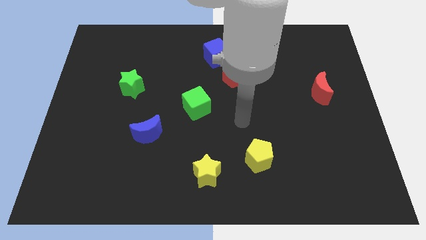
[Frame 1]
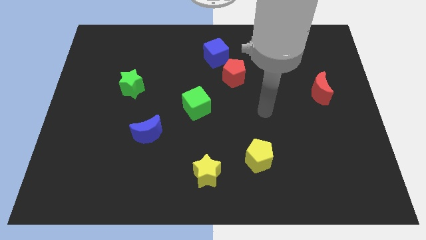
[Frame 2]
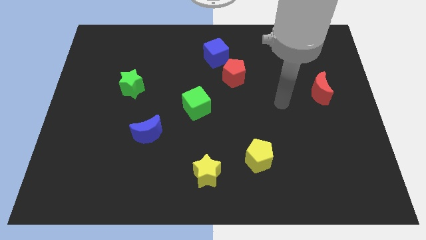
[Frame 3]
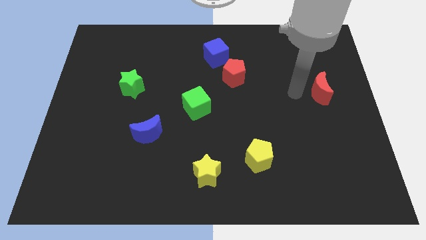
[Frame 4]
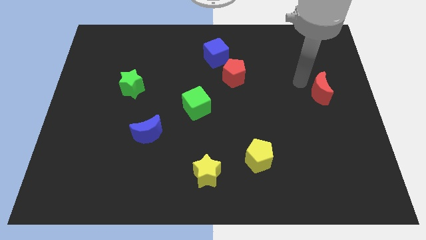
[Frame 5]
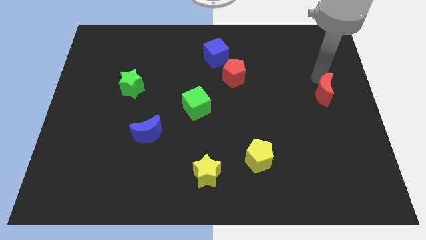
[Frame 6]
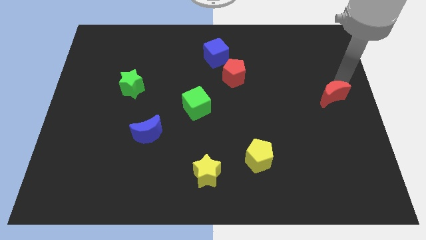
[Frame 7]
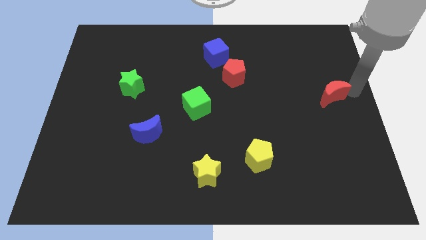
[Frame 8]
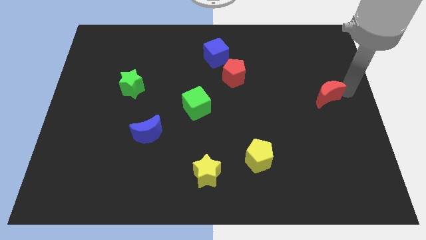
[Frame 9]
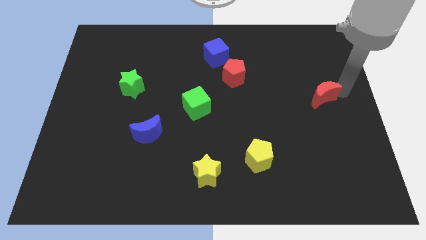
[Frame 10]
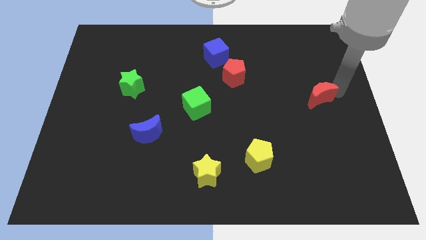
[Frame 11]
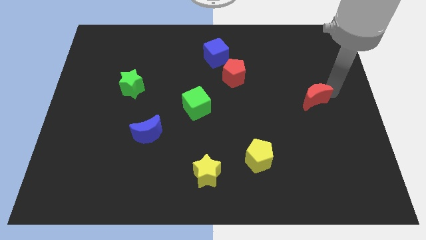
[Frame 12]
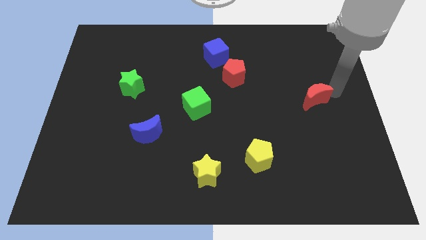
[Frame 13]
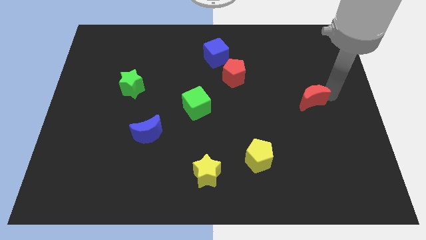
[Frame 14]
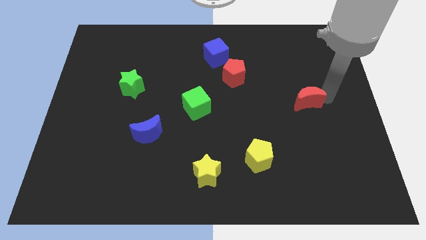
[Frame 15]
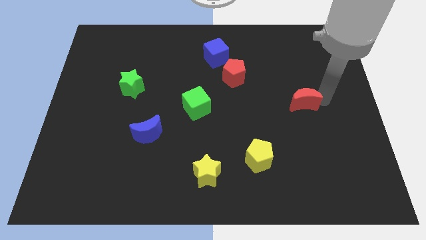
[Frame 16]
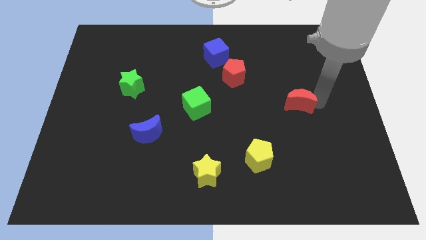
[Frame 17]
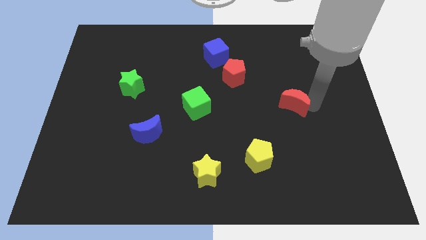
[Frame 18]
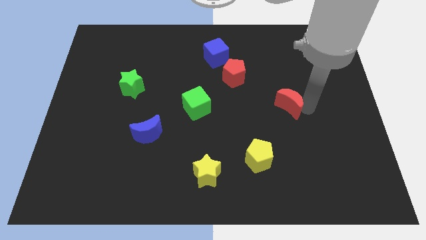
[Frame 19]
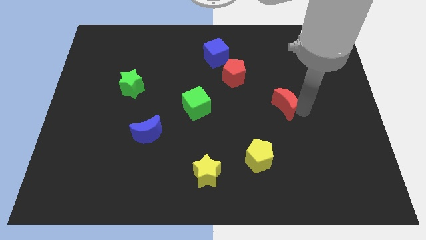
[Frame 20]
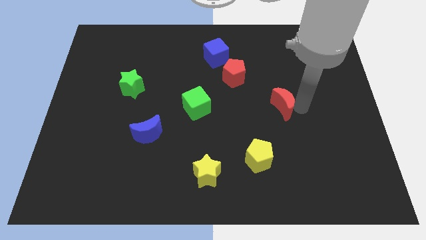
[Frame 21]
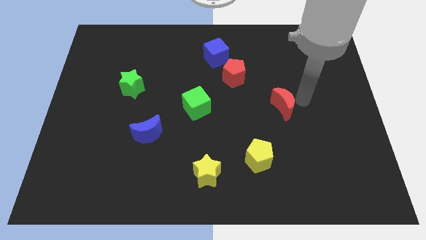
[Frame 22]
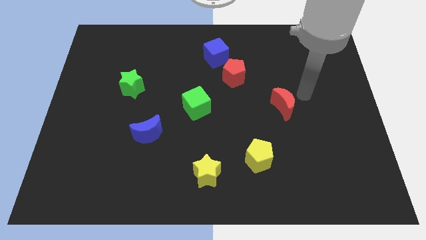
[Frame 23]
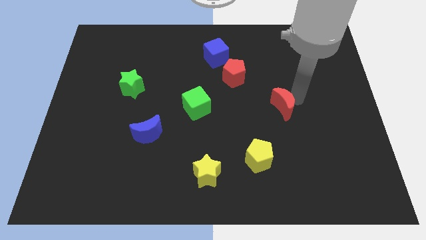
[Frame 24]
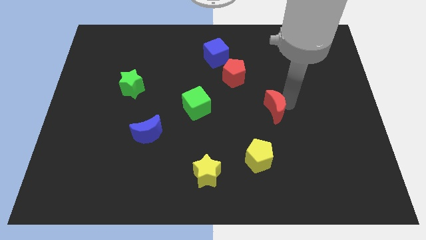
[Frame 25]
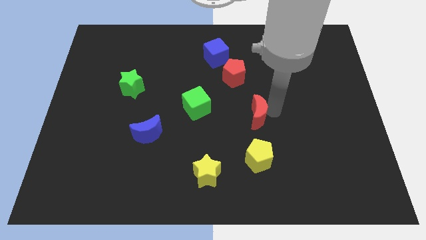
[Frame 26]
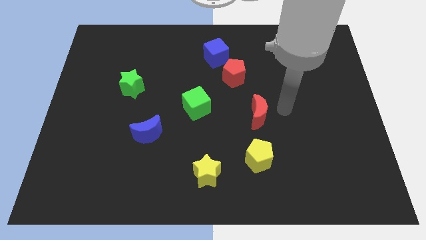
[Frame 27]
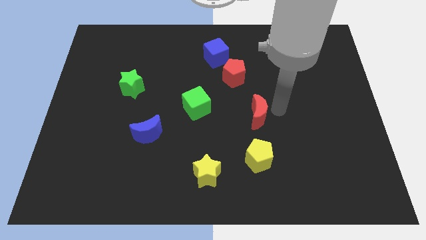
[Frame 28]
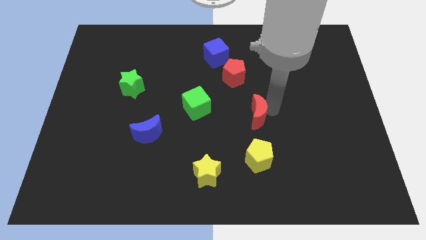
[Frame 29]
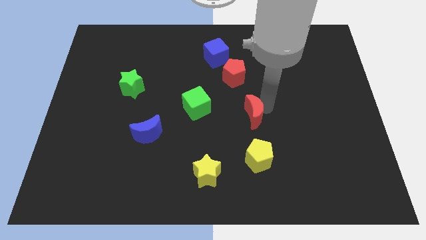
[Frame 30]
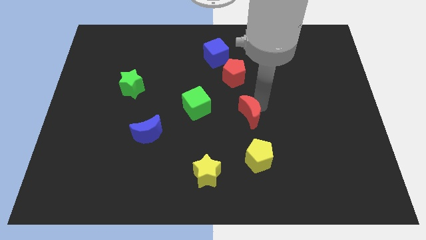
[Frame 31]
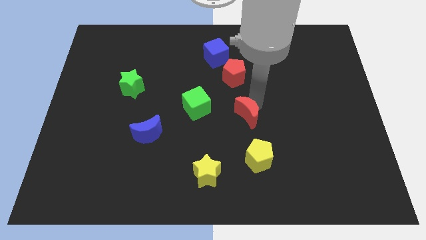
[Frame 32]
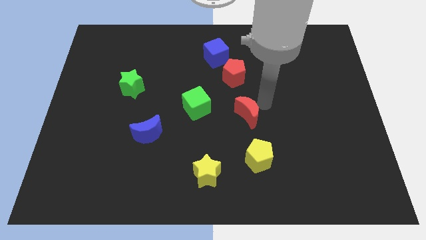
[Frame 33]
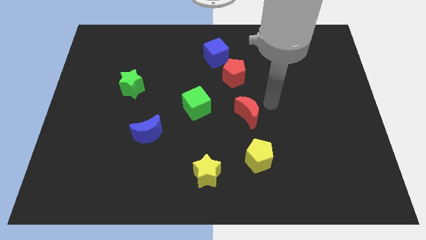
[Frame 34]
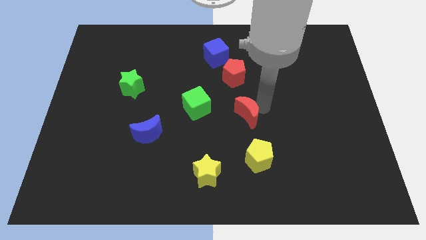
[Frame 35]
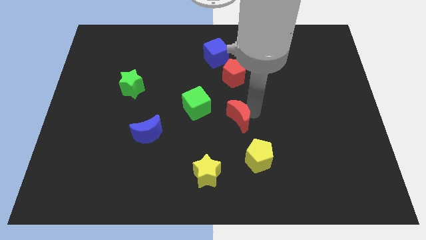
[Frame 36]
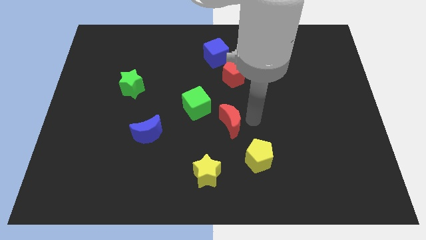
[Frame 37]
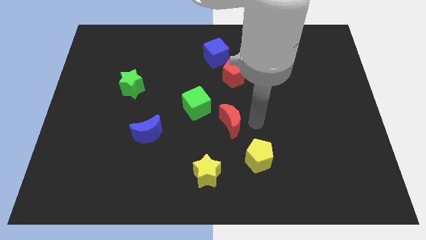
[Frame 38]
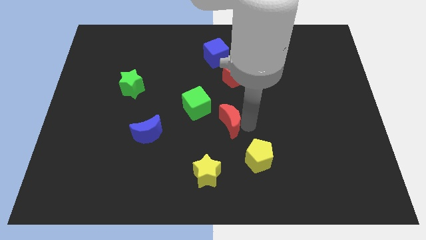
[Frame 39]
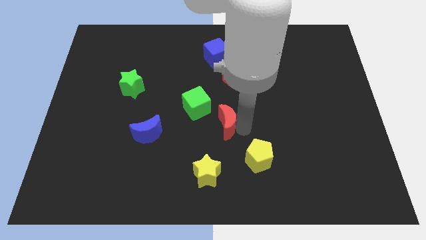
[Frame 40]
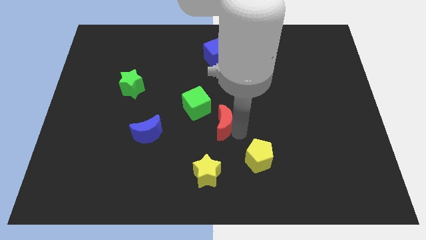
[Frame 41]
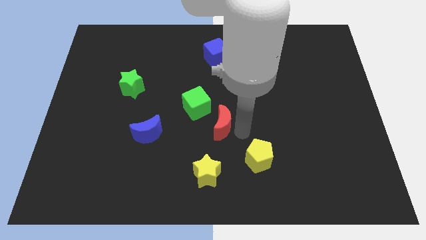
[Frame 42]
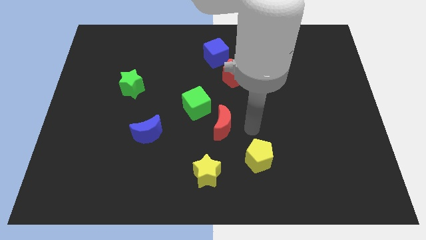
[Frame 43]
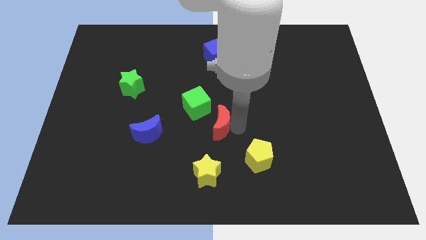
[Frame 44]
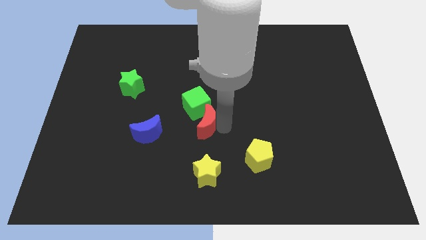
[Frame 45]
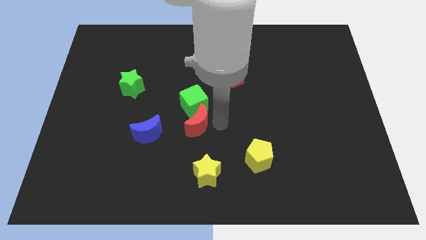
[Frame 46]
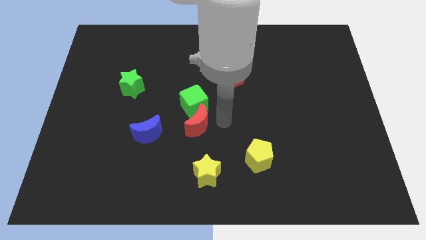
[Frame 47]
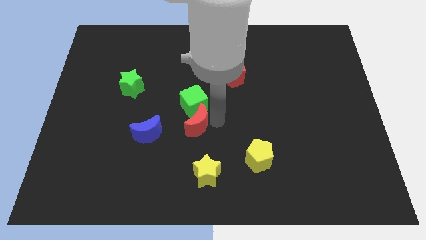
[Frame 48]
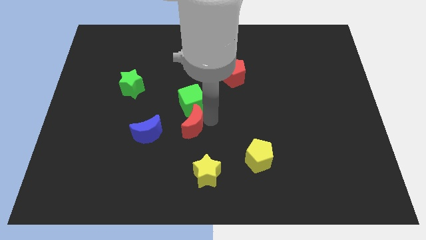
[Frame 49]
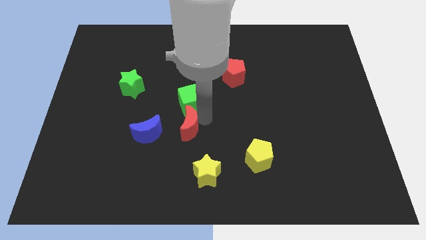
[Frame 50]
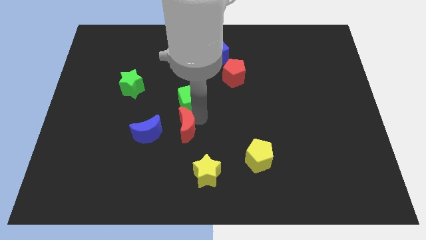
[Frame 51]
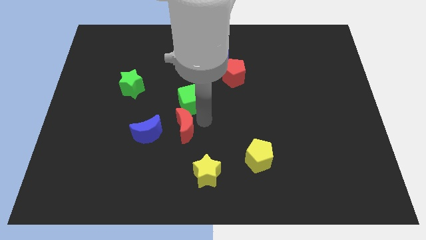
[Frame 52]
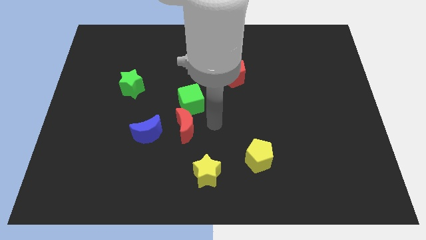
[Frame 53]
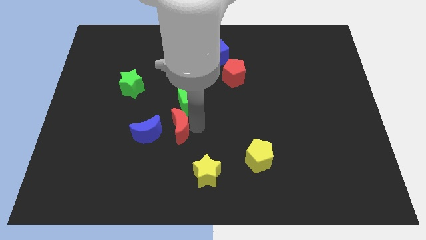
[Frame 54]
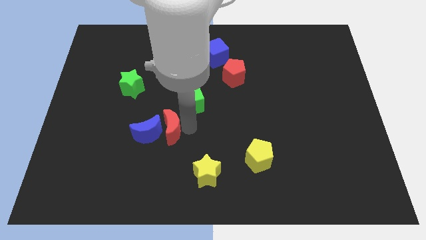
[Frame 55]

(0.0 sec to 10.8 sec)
push the red moon to the blue moon

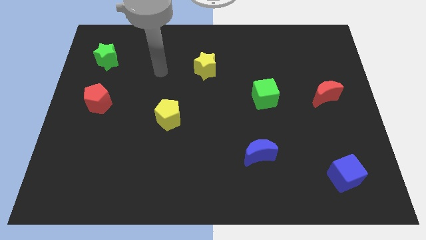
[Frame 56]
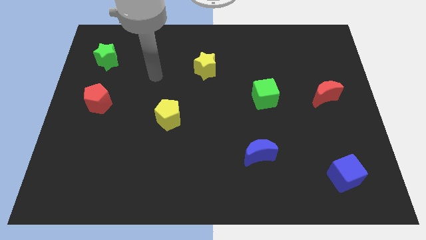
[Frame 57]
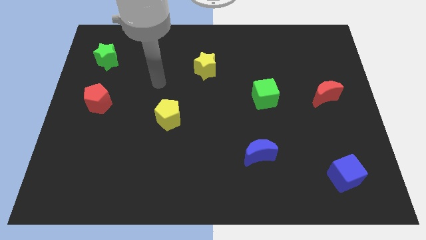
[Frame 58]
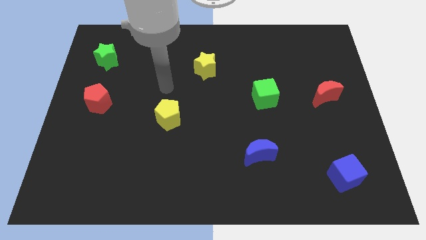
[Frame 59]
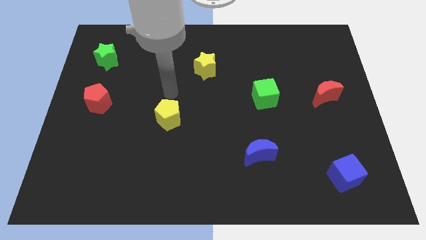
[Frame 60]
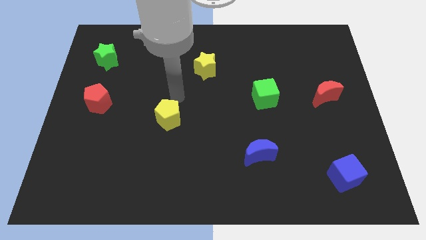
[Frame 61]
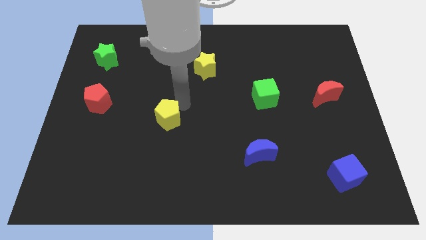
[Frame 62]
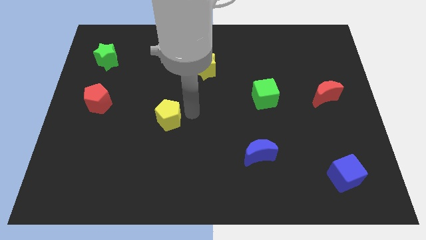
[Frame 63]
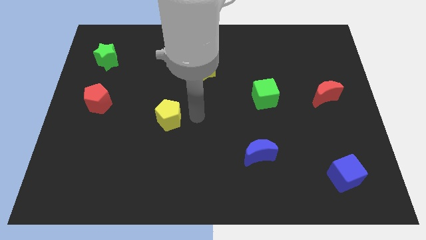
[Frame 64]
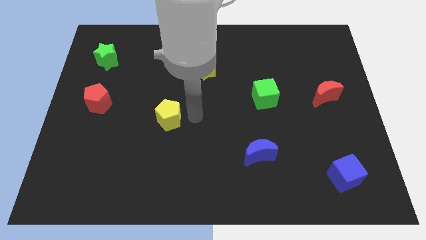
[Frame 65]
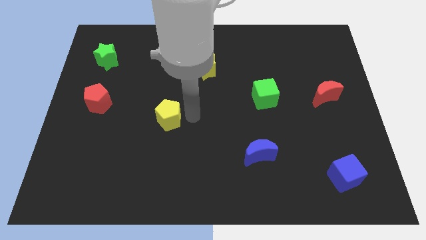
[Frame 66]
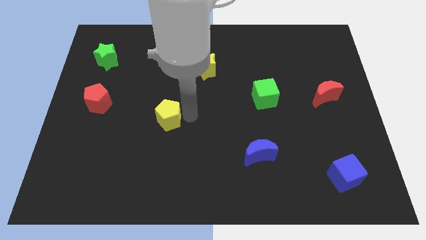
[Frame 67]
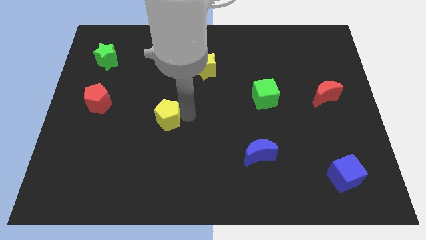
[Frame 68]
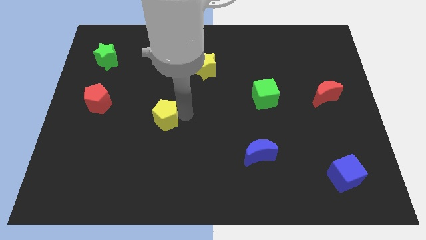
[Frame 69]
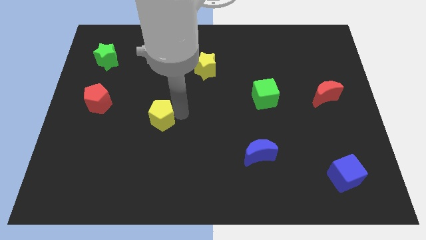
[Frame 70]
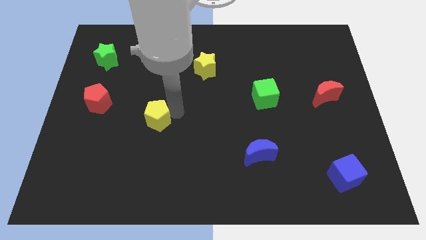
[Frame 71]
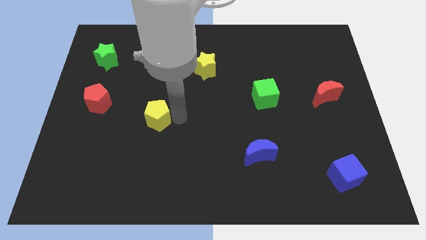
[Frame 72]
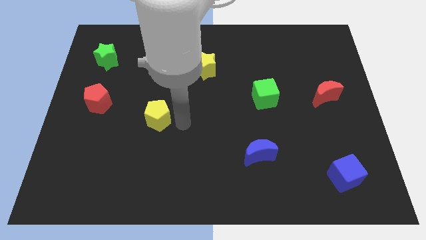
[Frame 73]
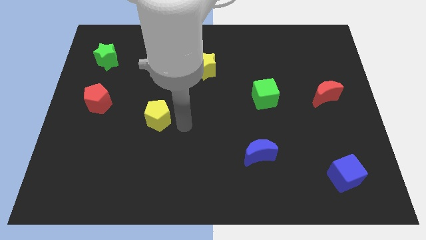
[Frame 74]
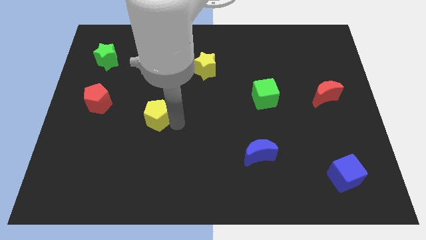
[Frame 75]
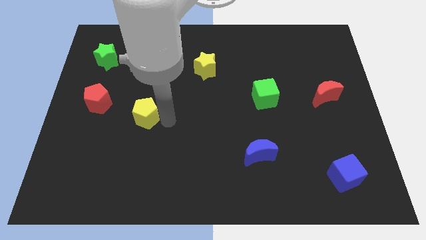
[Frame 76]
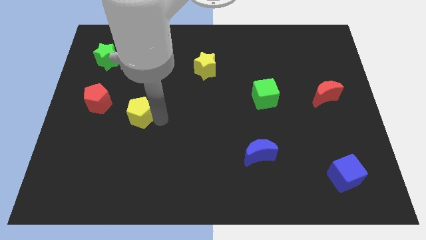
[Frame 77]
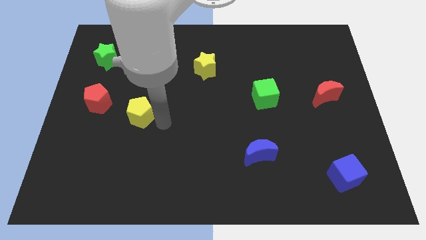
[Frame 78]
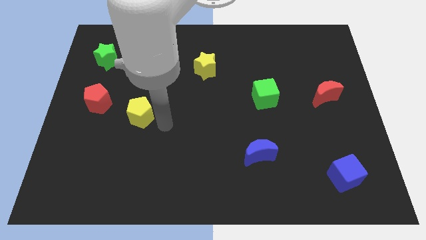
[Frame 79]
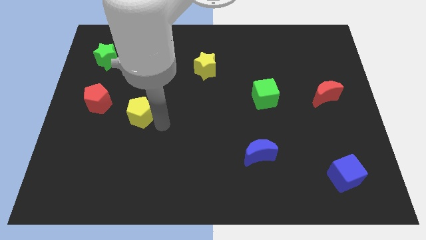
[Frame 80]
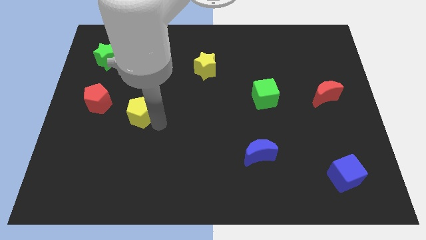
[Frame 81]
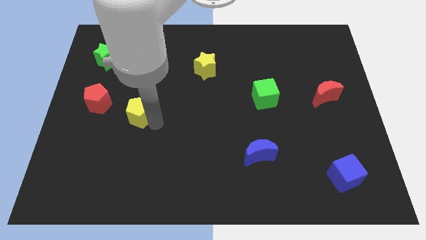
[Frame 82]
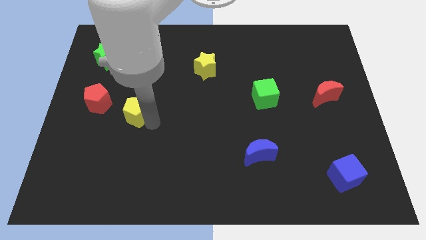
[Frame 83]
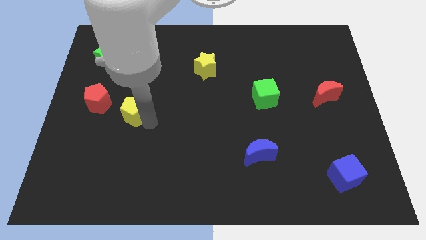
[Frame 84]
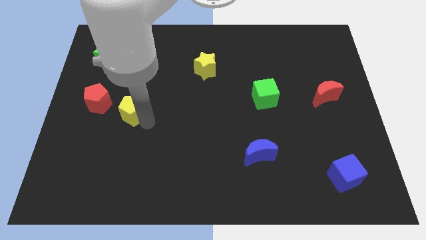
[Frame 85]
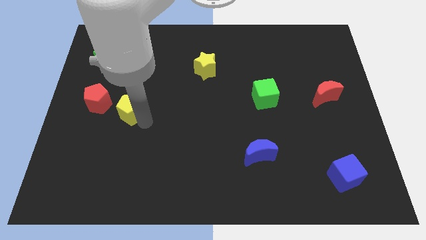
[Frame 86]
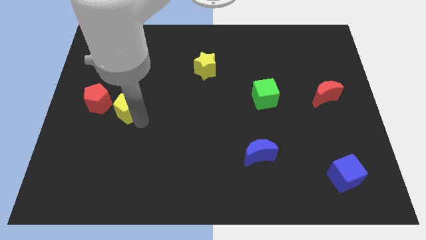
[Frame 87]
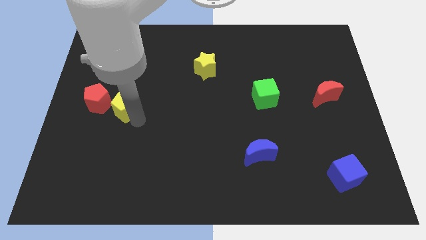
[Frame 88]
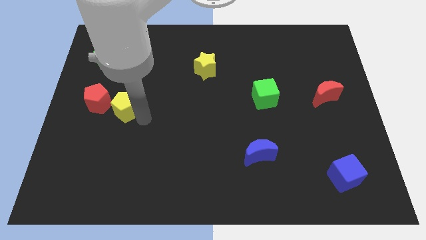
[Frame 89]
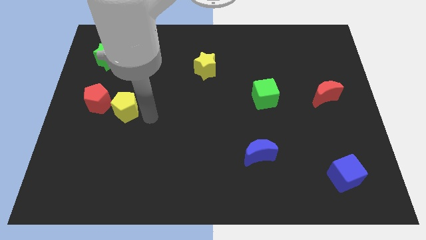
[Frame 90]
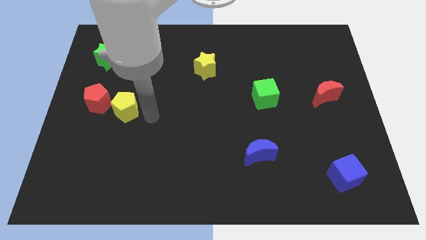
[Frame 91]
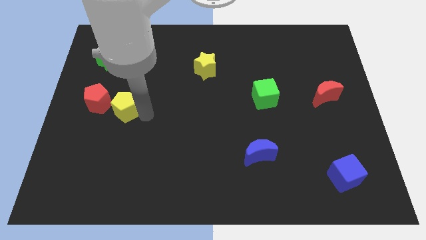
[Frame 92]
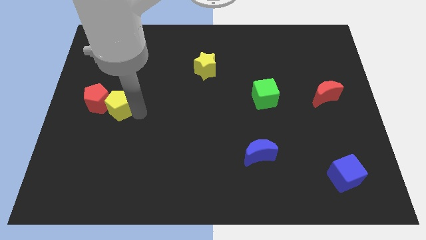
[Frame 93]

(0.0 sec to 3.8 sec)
slide the yellow pentagon towards the red pentagon
